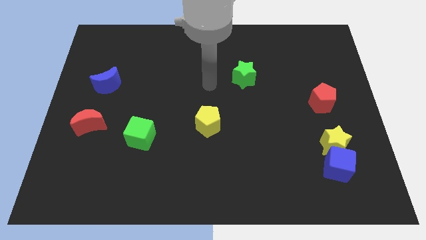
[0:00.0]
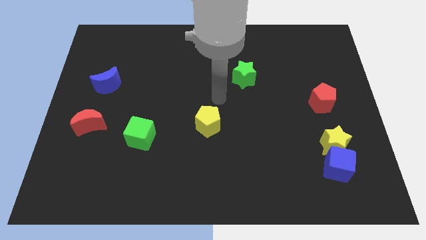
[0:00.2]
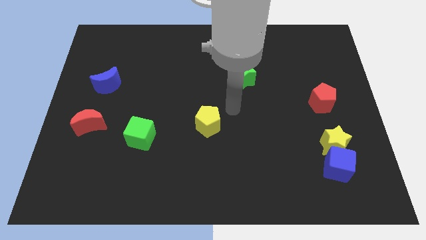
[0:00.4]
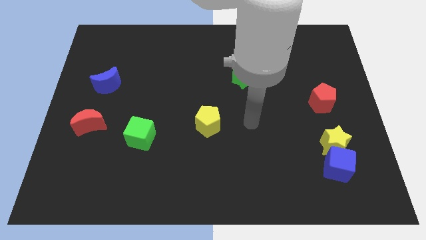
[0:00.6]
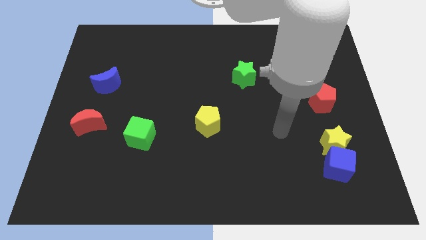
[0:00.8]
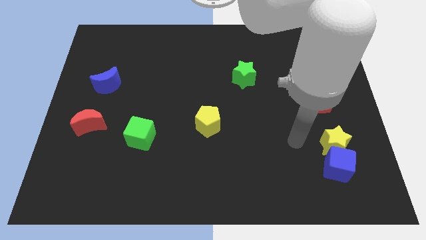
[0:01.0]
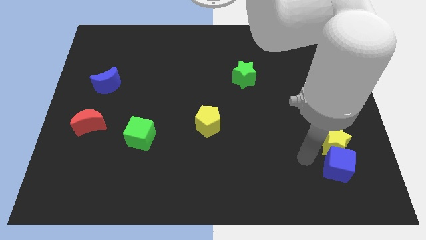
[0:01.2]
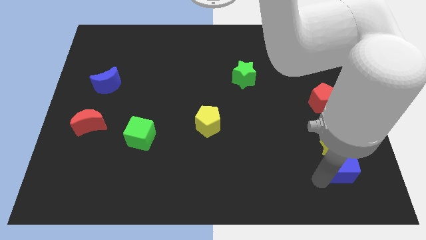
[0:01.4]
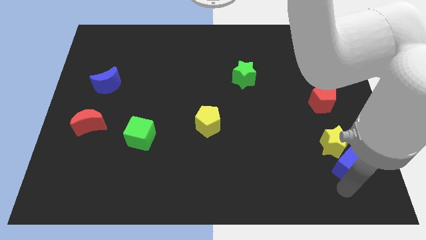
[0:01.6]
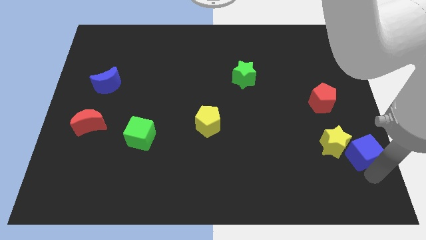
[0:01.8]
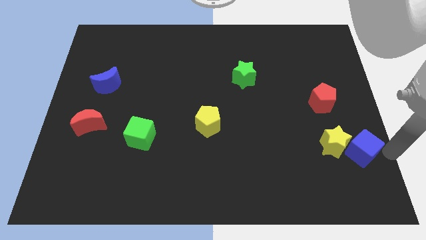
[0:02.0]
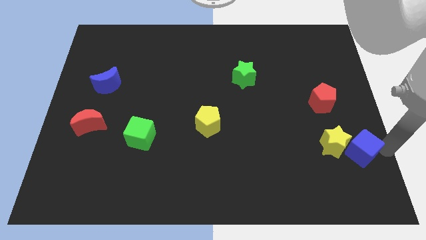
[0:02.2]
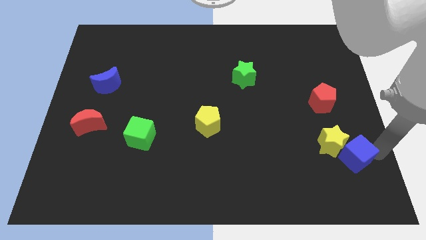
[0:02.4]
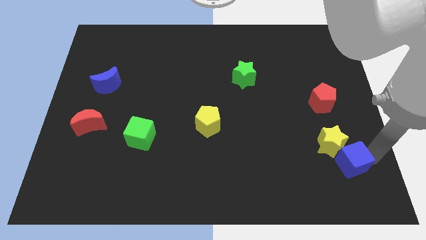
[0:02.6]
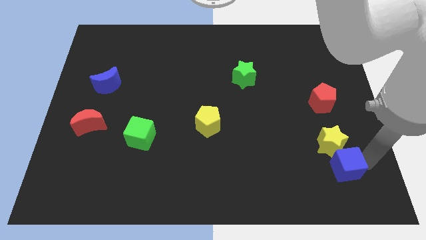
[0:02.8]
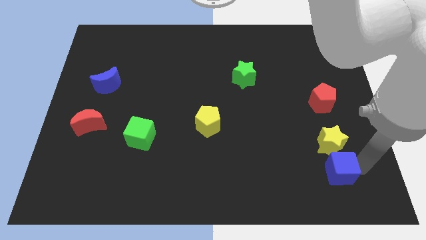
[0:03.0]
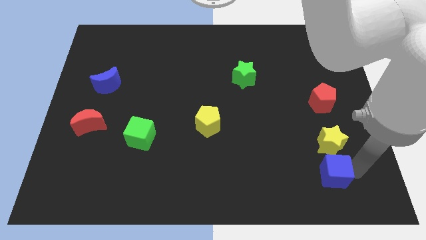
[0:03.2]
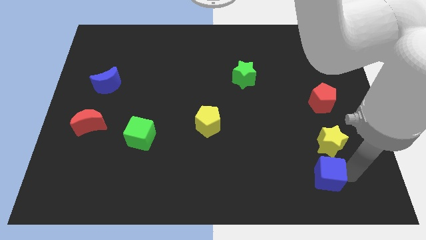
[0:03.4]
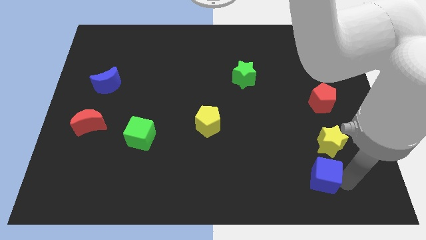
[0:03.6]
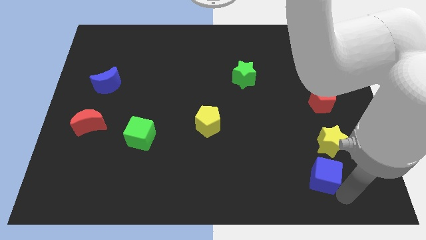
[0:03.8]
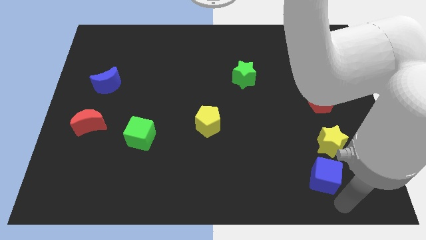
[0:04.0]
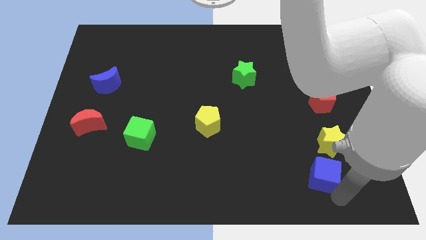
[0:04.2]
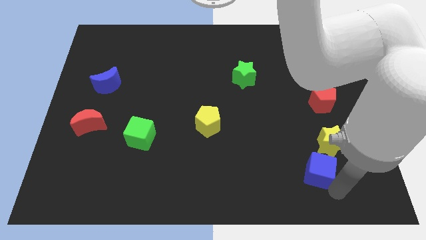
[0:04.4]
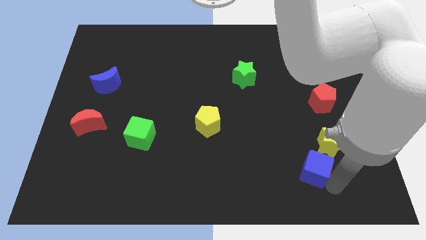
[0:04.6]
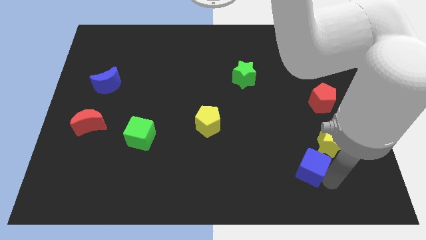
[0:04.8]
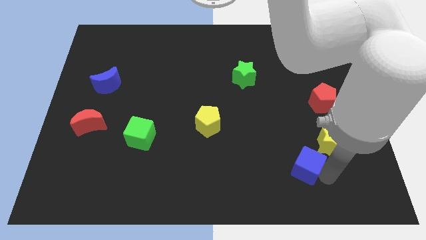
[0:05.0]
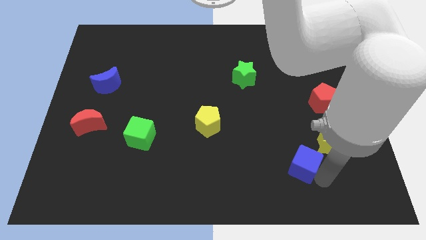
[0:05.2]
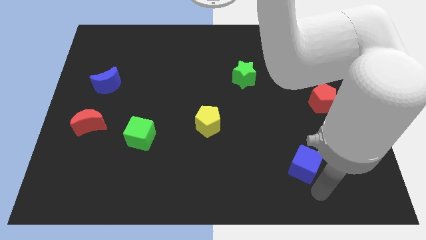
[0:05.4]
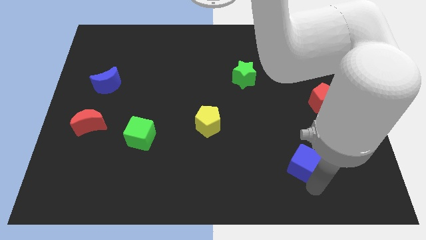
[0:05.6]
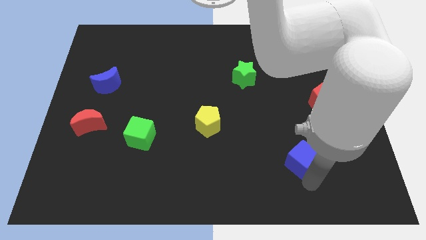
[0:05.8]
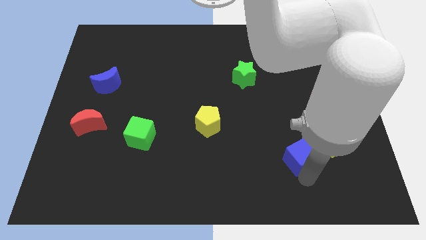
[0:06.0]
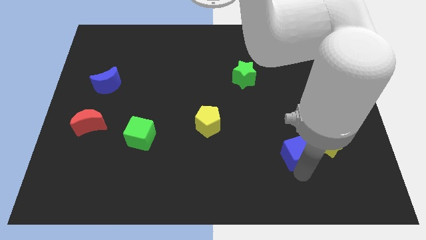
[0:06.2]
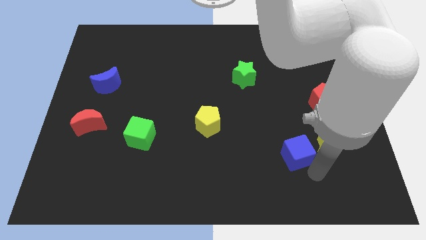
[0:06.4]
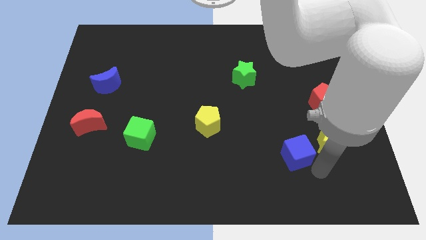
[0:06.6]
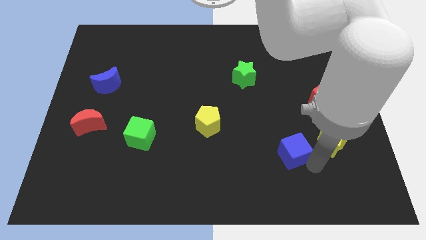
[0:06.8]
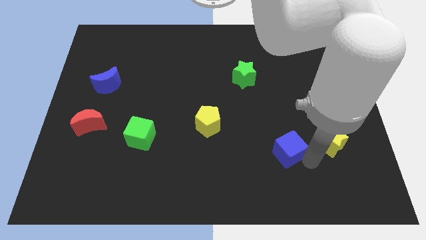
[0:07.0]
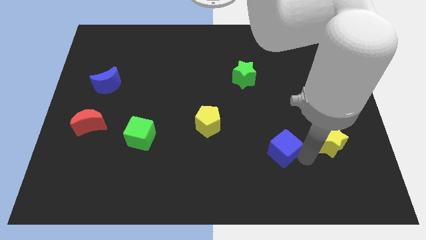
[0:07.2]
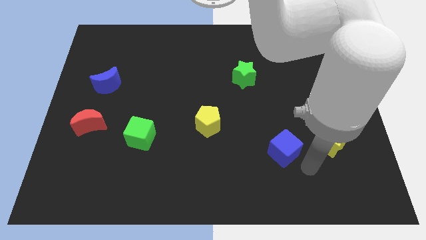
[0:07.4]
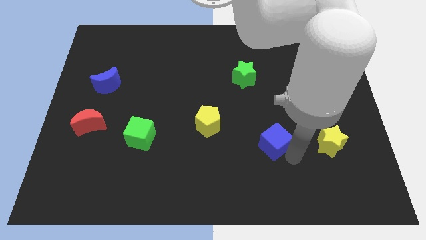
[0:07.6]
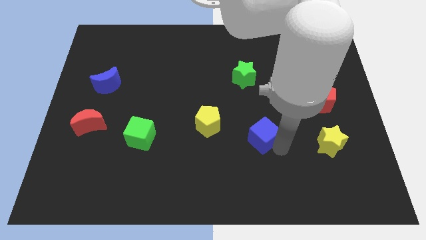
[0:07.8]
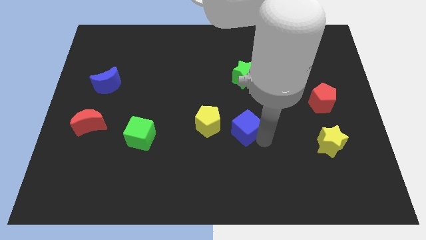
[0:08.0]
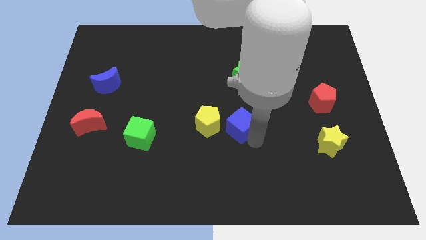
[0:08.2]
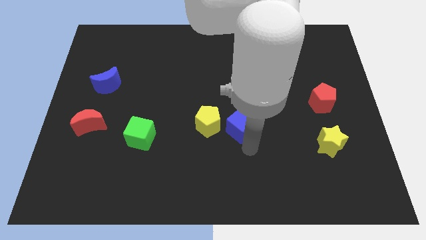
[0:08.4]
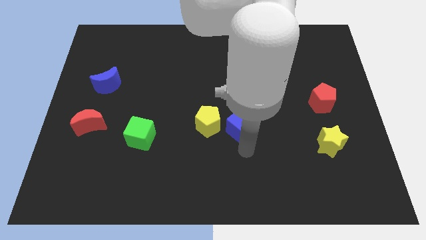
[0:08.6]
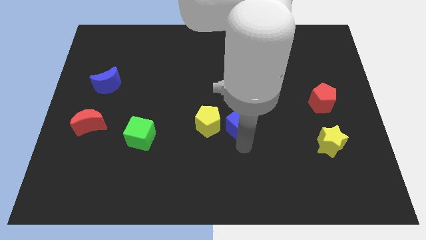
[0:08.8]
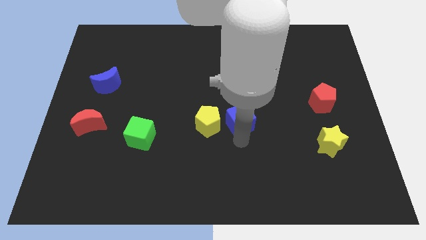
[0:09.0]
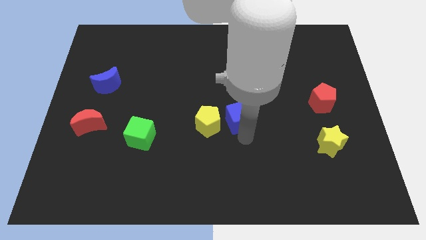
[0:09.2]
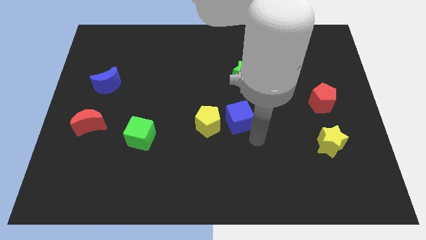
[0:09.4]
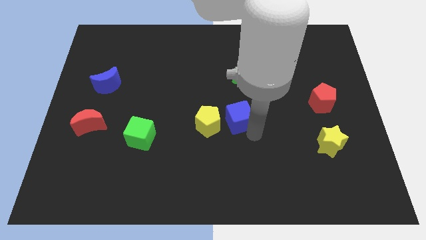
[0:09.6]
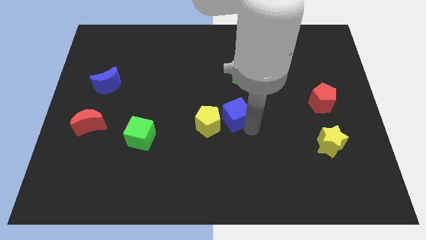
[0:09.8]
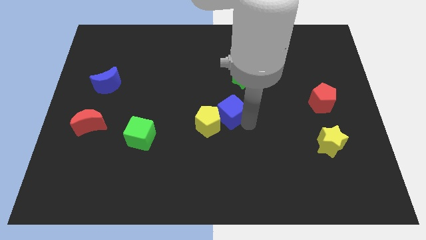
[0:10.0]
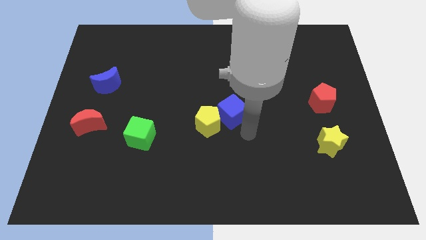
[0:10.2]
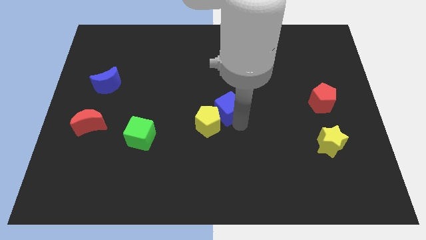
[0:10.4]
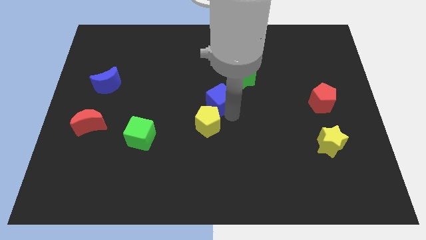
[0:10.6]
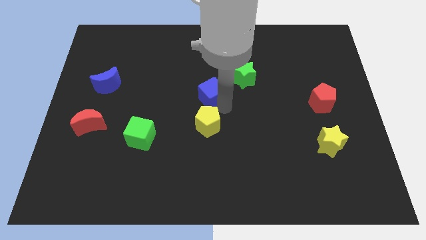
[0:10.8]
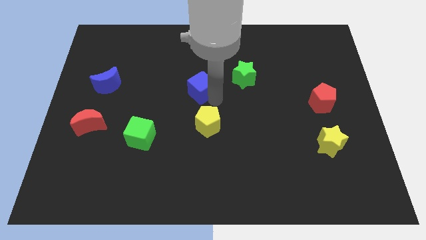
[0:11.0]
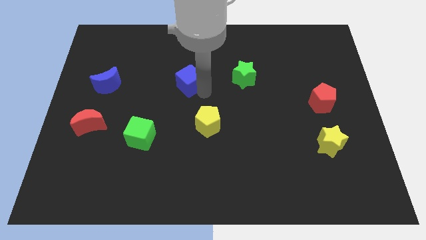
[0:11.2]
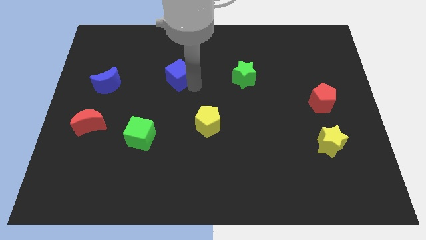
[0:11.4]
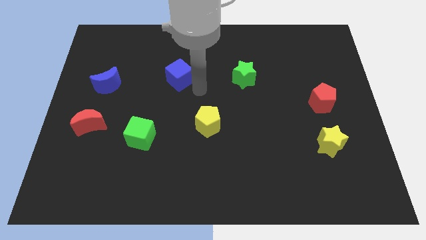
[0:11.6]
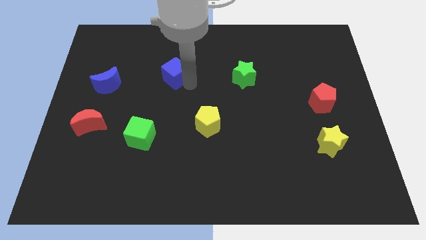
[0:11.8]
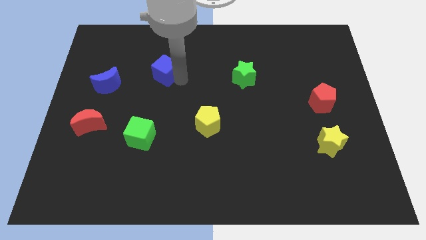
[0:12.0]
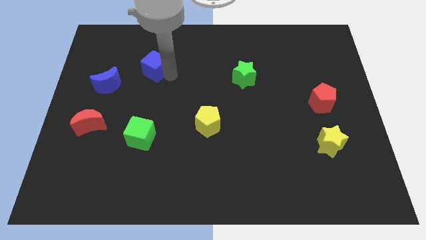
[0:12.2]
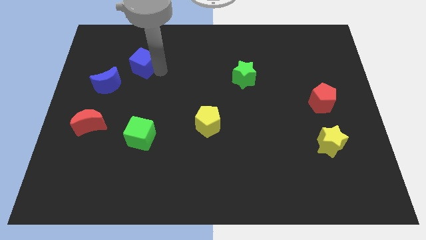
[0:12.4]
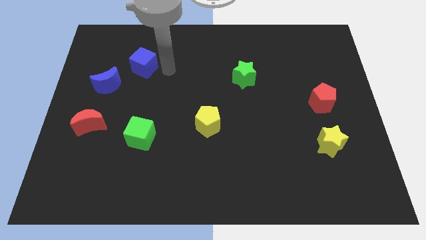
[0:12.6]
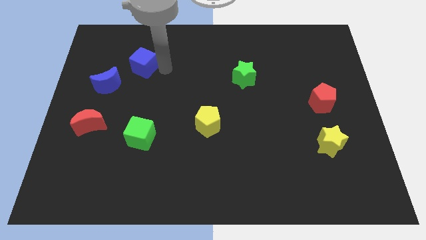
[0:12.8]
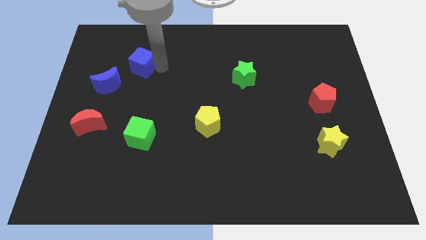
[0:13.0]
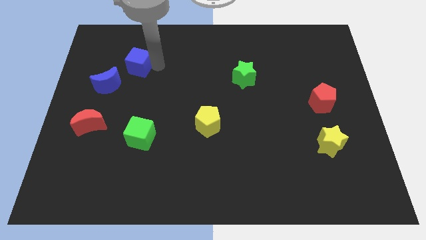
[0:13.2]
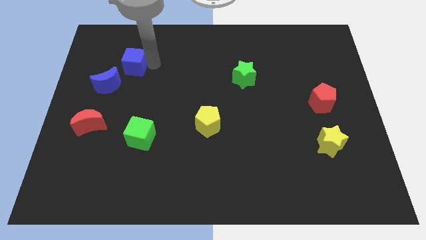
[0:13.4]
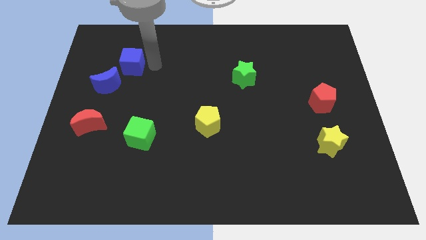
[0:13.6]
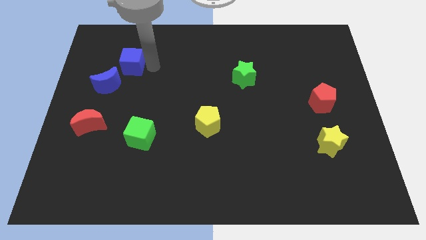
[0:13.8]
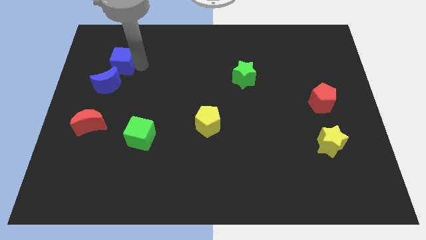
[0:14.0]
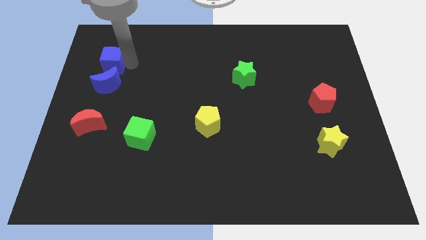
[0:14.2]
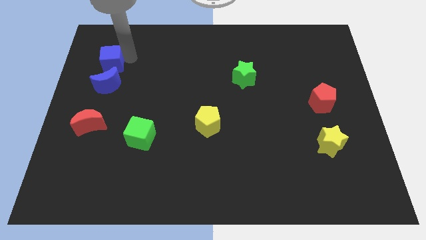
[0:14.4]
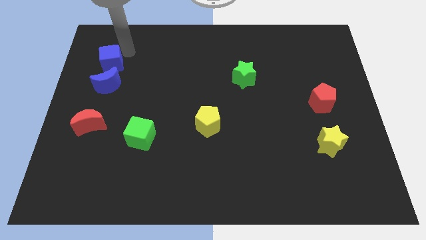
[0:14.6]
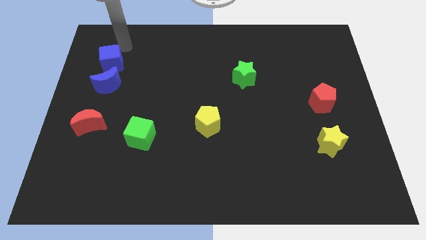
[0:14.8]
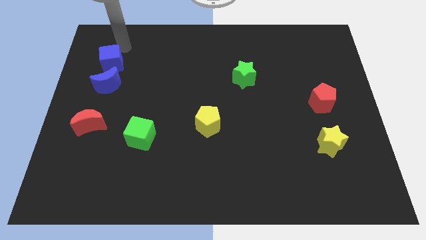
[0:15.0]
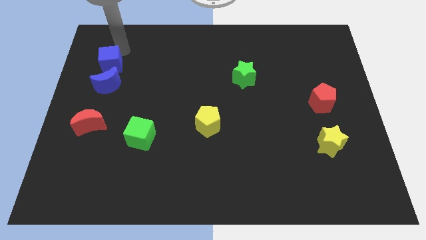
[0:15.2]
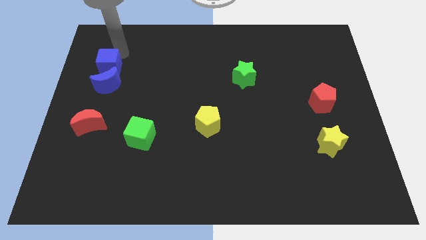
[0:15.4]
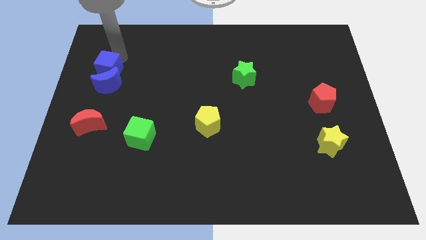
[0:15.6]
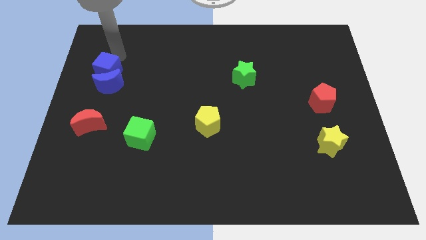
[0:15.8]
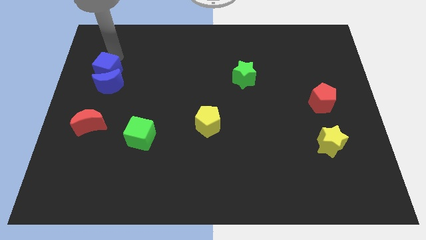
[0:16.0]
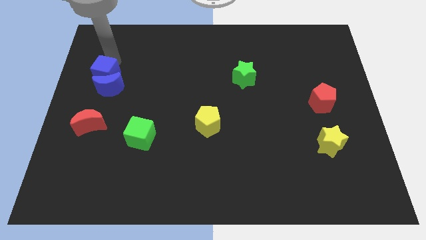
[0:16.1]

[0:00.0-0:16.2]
put the blue cube above the red moon
